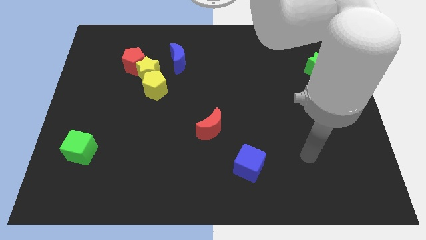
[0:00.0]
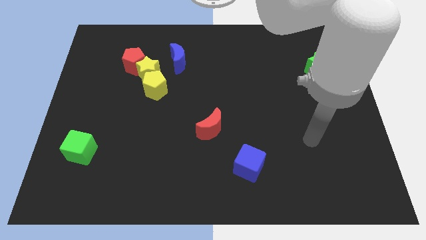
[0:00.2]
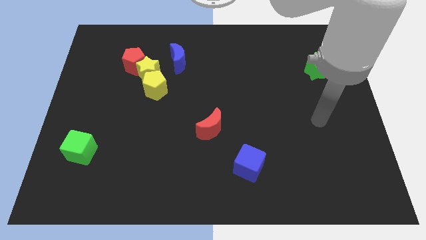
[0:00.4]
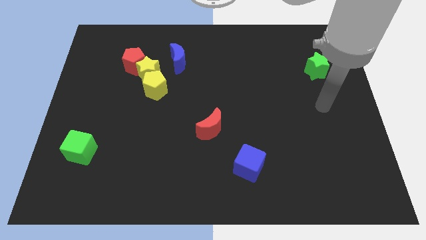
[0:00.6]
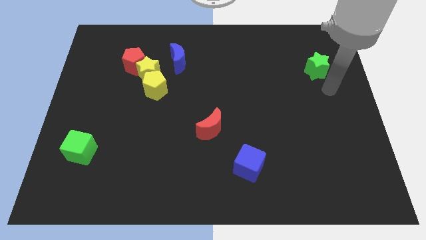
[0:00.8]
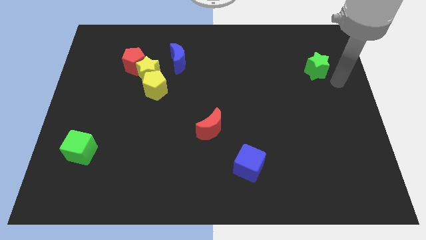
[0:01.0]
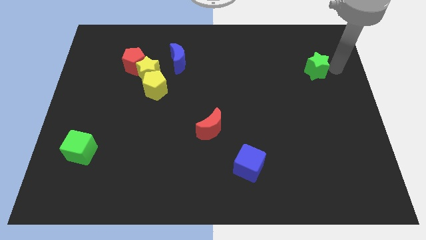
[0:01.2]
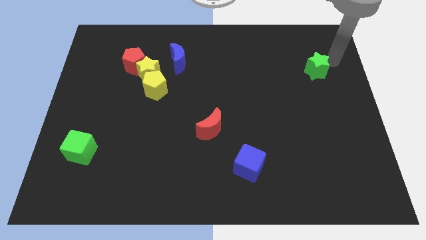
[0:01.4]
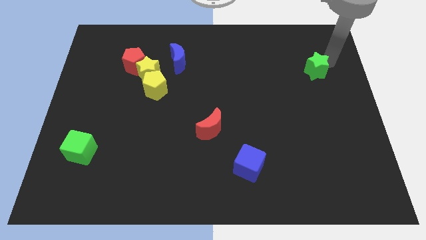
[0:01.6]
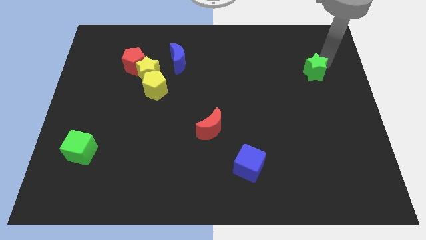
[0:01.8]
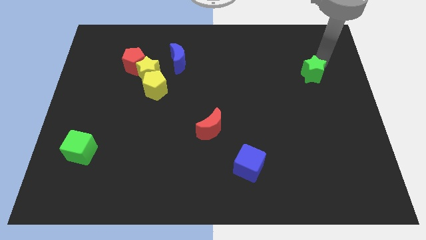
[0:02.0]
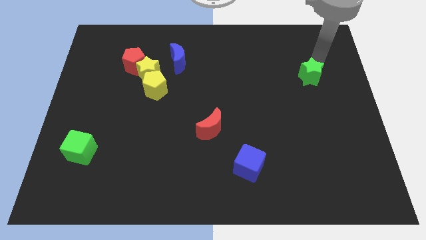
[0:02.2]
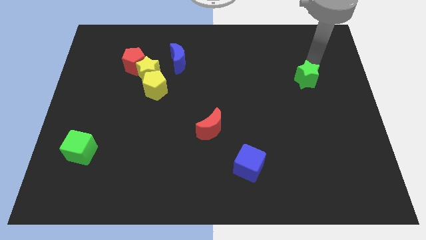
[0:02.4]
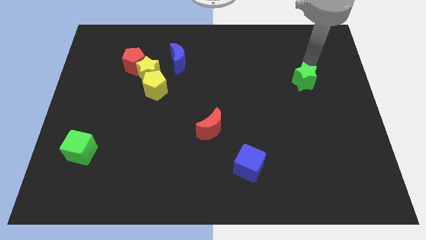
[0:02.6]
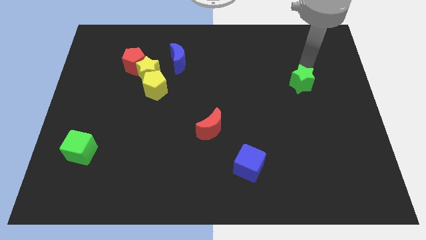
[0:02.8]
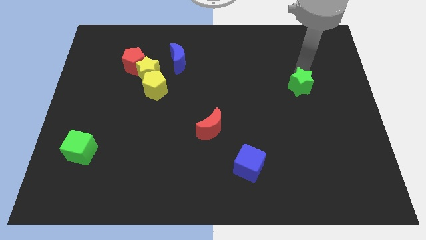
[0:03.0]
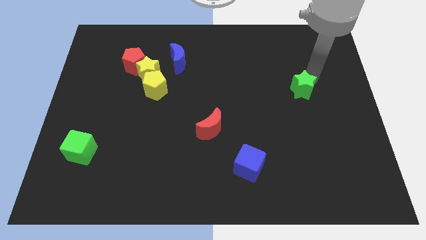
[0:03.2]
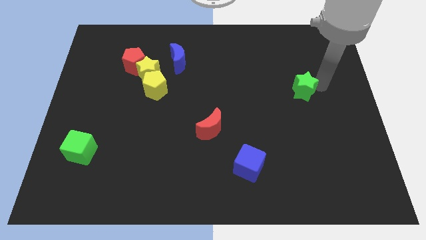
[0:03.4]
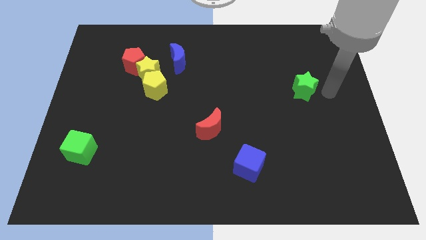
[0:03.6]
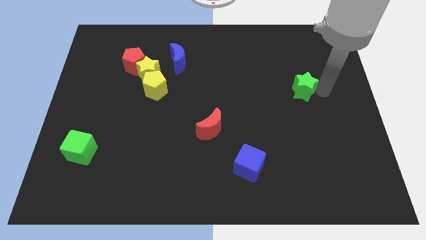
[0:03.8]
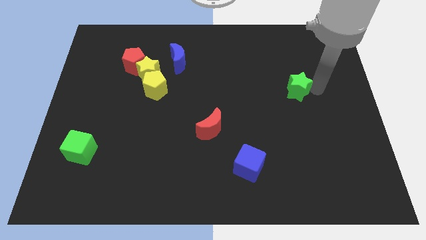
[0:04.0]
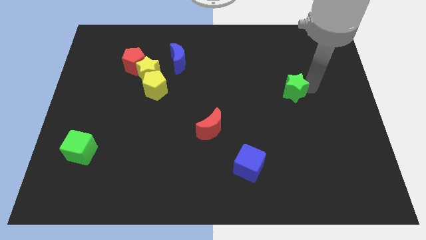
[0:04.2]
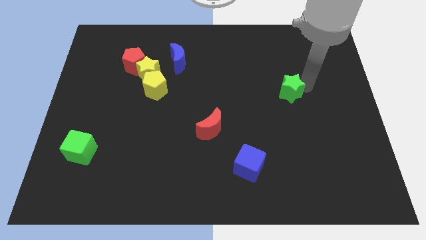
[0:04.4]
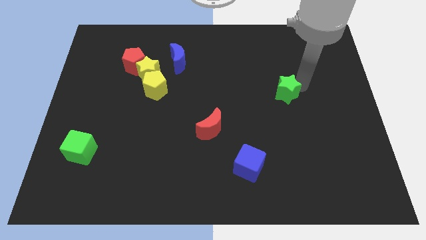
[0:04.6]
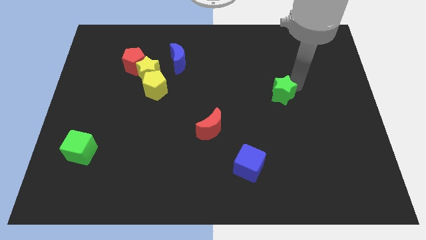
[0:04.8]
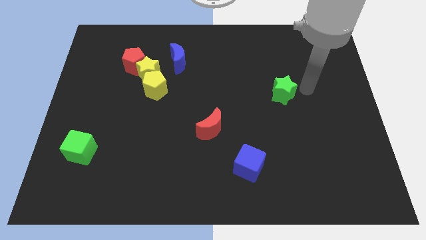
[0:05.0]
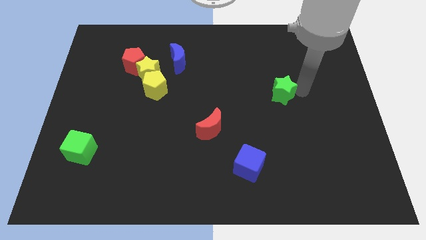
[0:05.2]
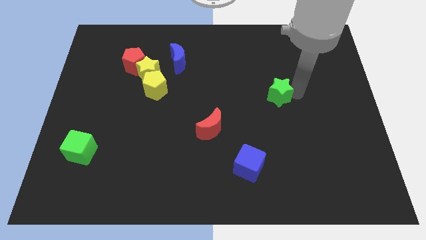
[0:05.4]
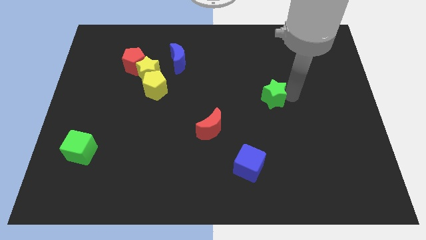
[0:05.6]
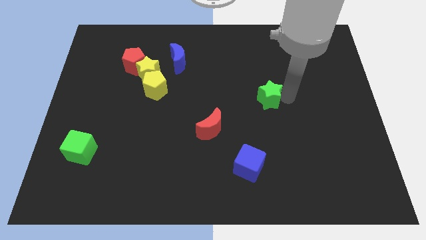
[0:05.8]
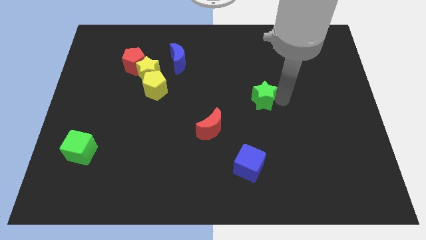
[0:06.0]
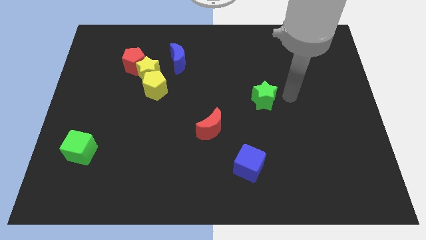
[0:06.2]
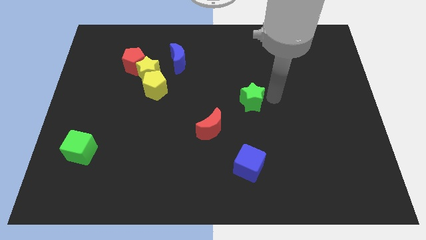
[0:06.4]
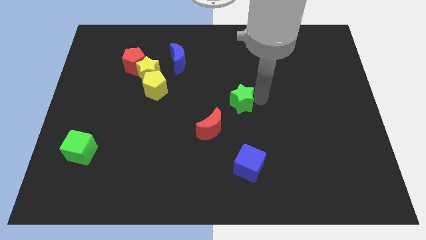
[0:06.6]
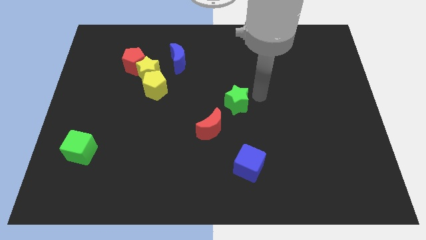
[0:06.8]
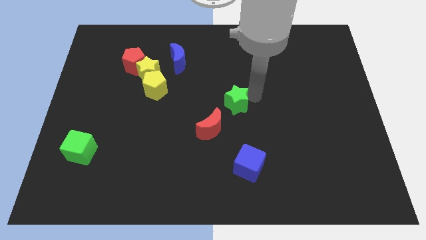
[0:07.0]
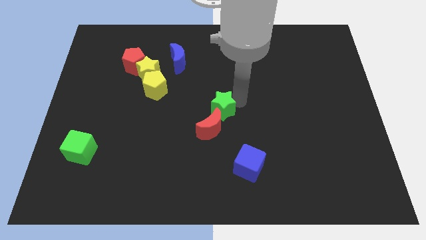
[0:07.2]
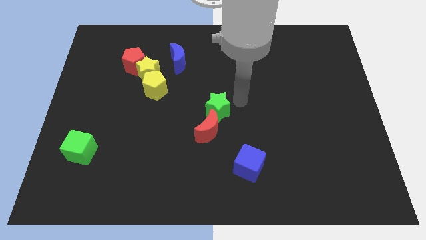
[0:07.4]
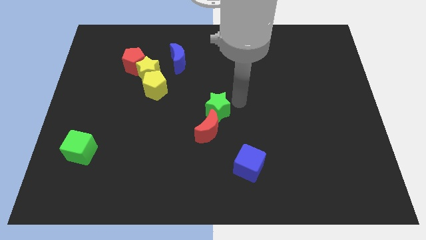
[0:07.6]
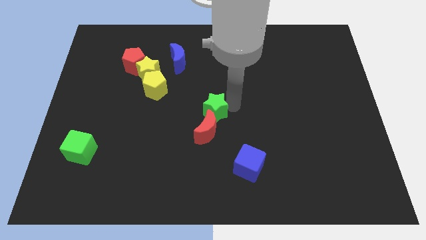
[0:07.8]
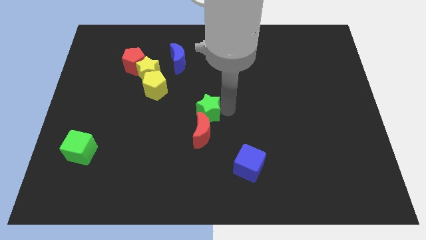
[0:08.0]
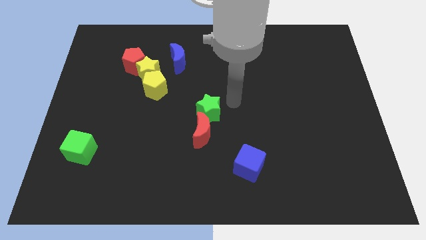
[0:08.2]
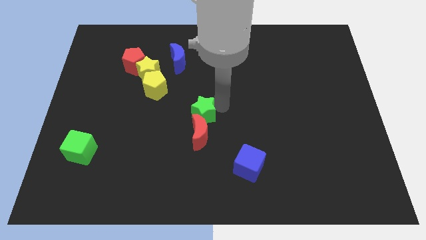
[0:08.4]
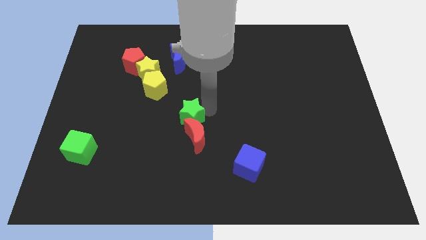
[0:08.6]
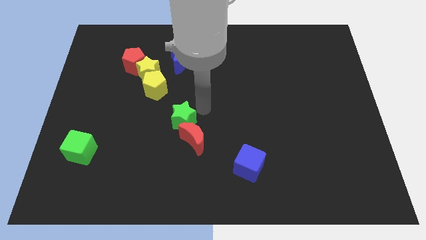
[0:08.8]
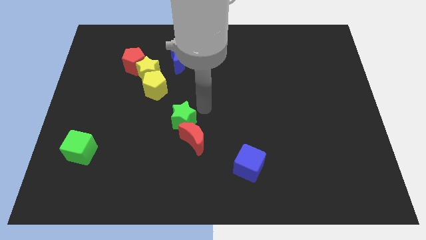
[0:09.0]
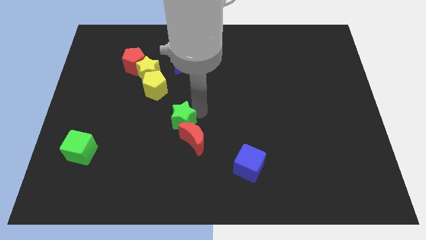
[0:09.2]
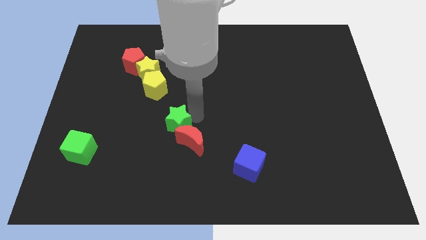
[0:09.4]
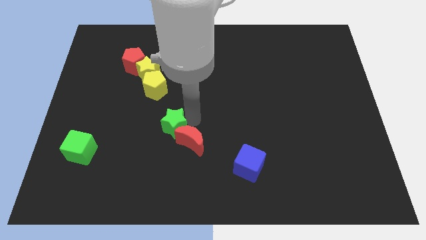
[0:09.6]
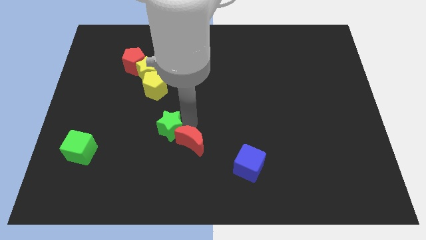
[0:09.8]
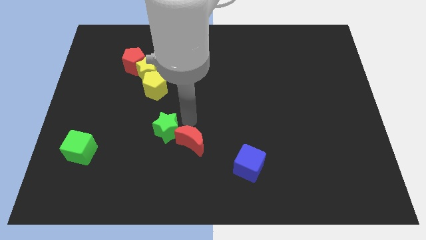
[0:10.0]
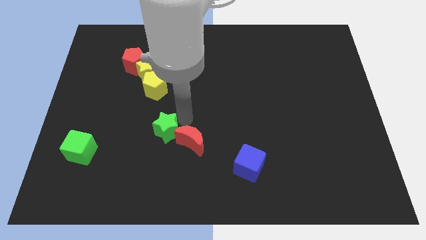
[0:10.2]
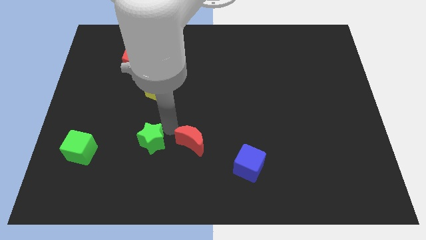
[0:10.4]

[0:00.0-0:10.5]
slide the green star to the right of the green cube

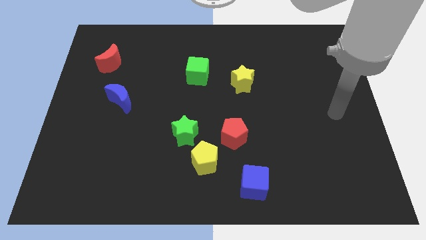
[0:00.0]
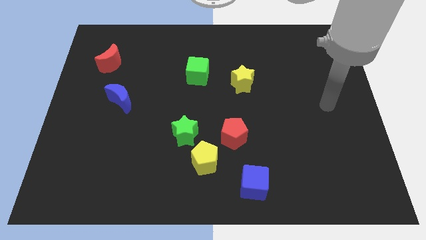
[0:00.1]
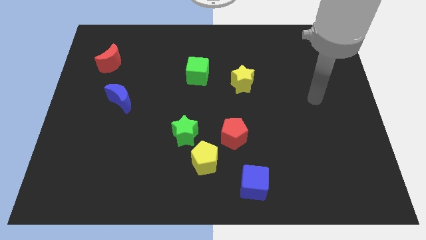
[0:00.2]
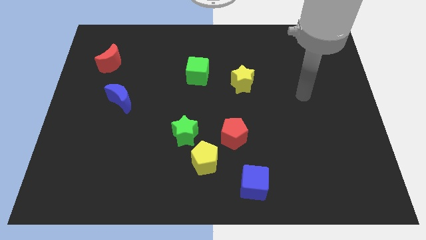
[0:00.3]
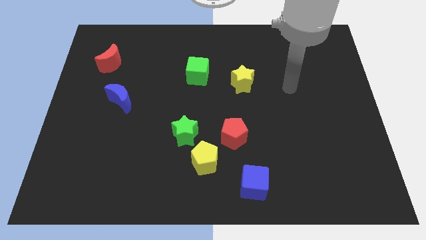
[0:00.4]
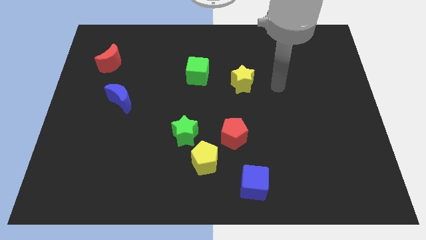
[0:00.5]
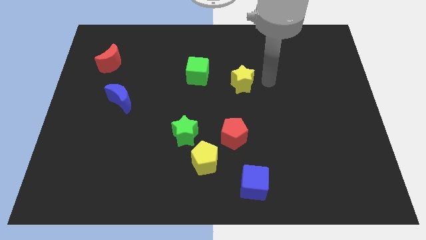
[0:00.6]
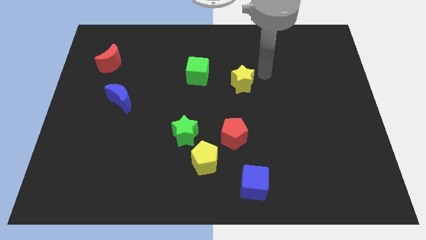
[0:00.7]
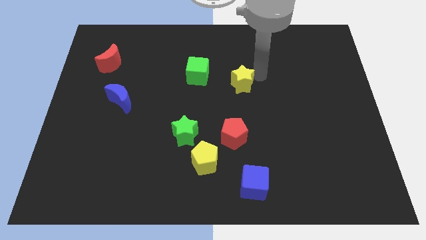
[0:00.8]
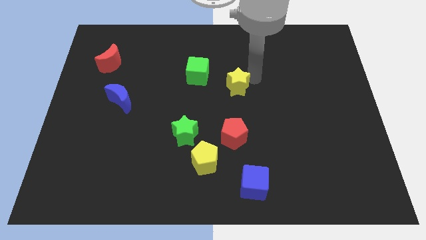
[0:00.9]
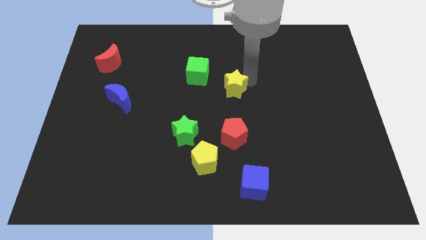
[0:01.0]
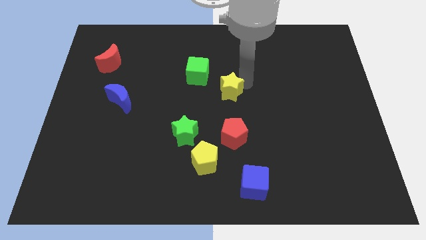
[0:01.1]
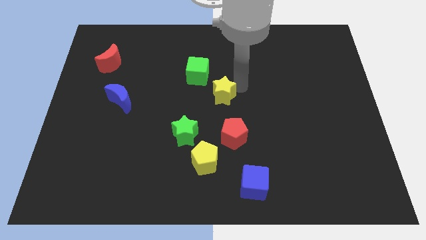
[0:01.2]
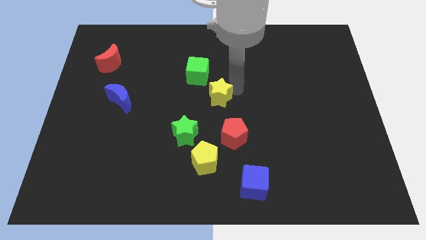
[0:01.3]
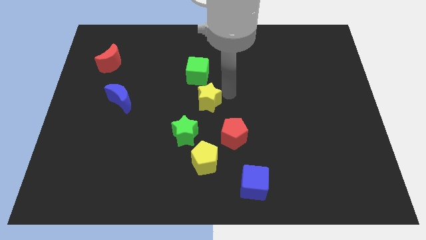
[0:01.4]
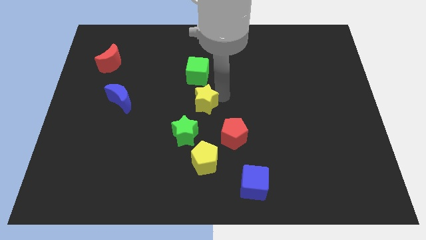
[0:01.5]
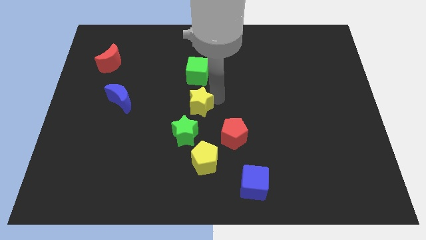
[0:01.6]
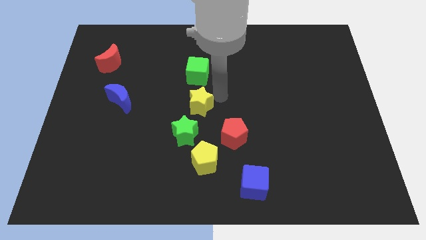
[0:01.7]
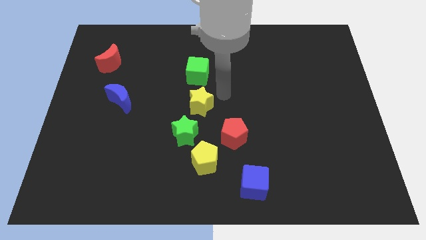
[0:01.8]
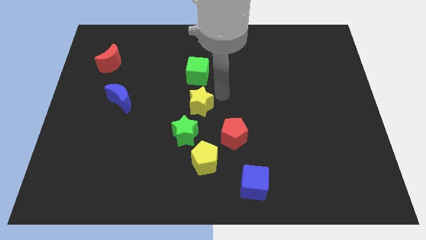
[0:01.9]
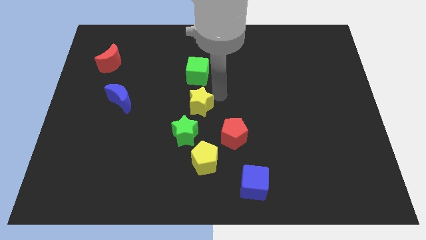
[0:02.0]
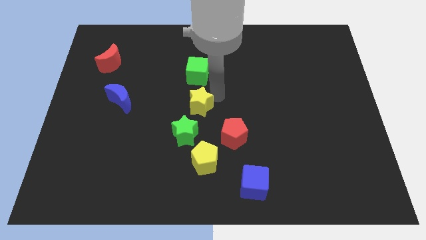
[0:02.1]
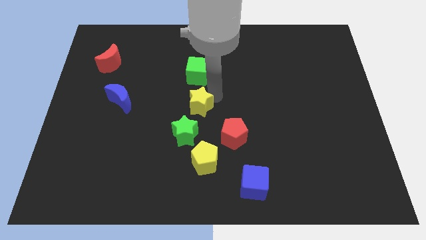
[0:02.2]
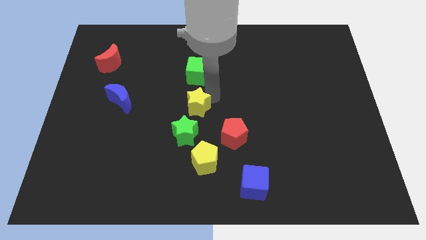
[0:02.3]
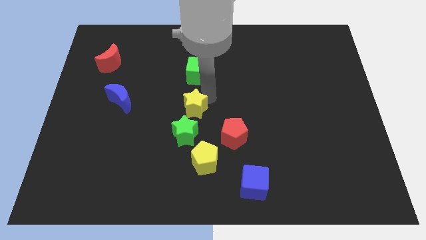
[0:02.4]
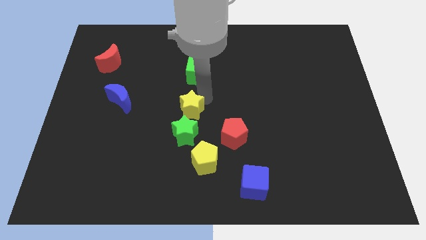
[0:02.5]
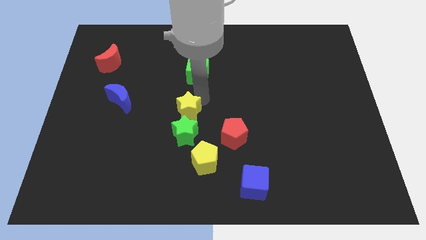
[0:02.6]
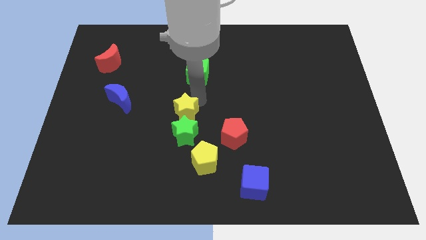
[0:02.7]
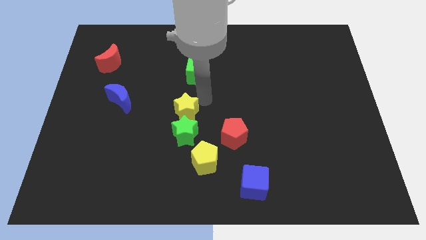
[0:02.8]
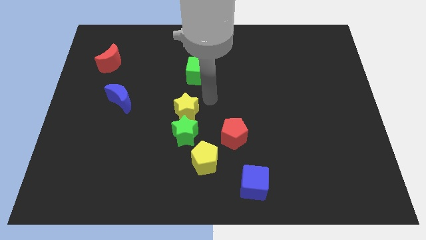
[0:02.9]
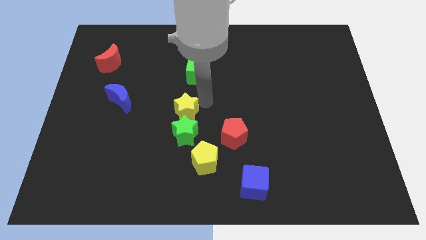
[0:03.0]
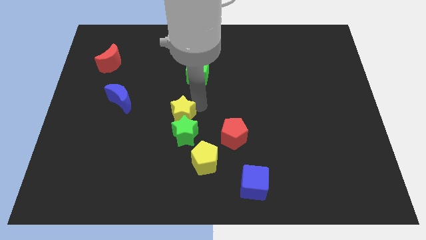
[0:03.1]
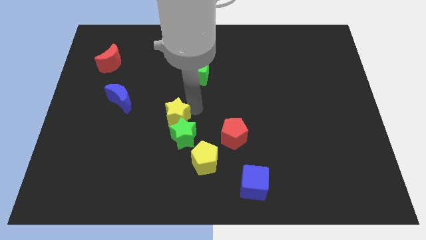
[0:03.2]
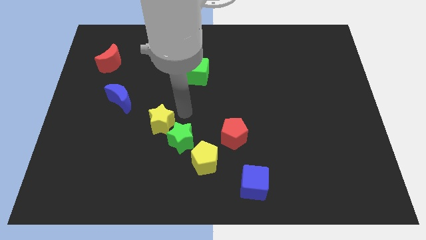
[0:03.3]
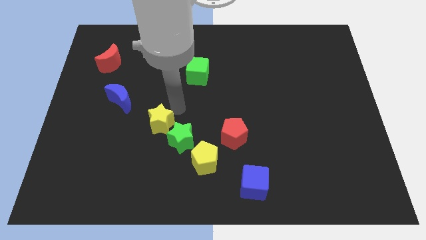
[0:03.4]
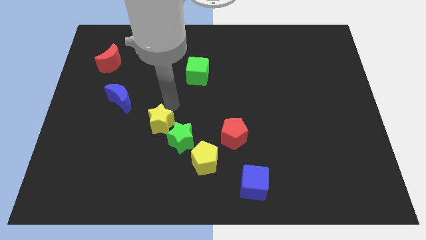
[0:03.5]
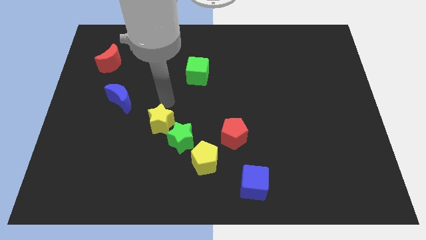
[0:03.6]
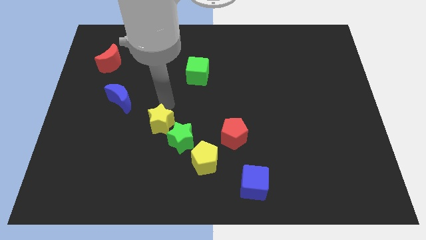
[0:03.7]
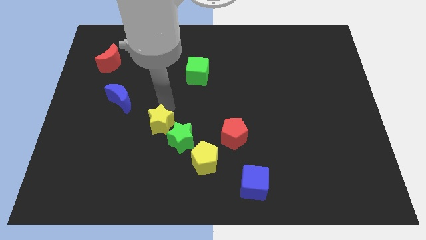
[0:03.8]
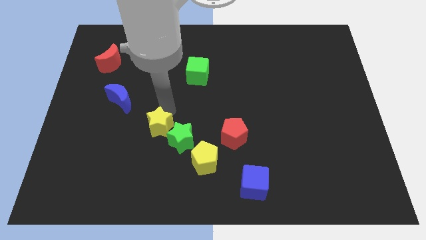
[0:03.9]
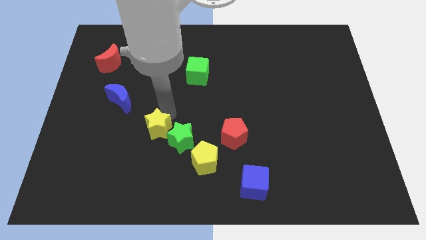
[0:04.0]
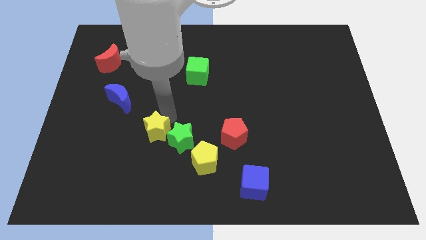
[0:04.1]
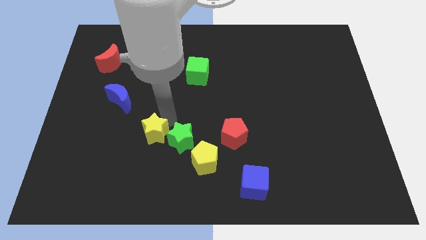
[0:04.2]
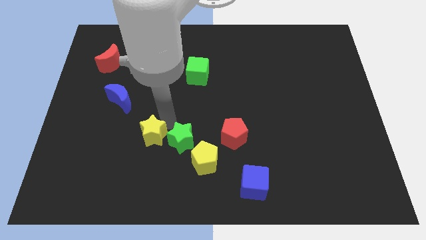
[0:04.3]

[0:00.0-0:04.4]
push the yellow star to the bottom left of the green star
